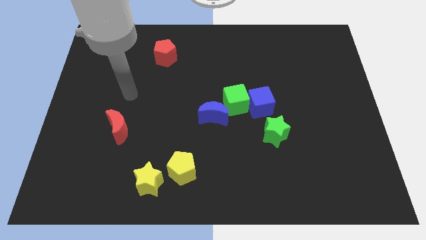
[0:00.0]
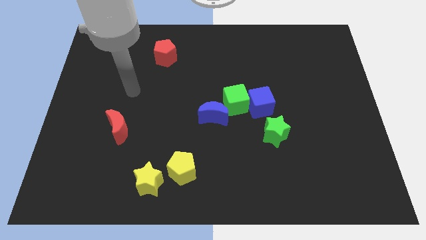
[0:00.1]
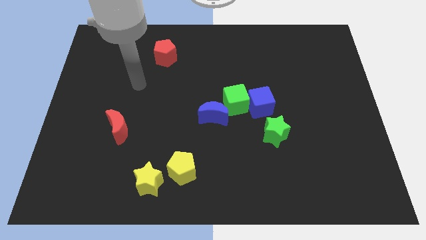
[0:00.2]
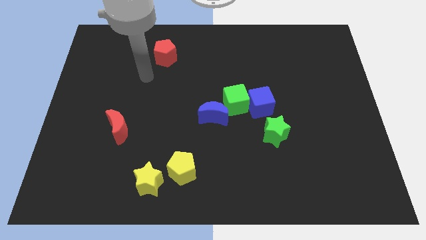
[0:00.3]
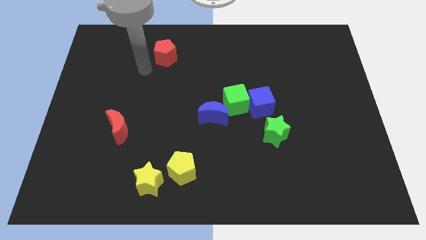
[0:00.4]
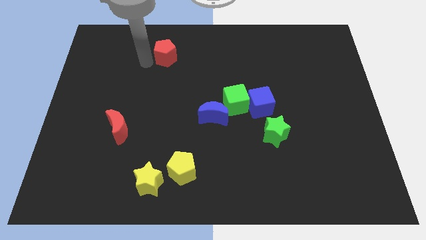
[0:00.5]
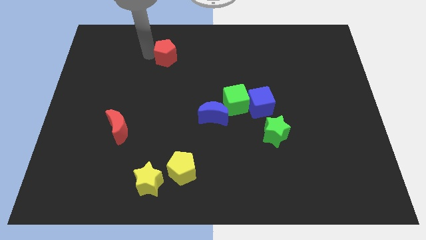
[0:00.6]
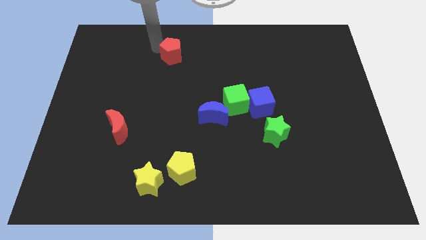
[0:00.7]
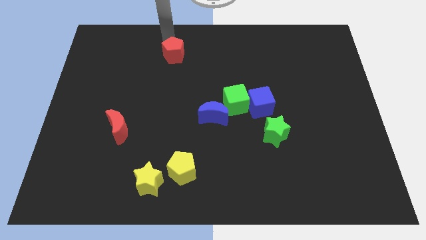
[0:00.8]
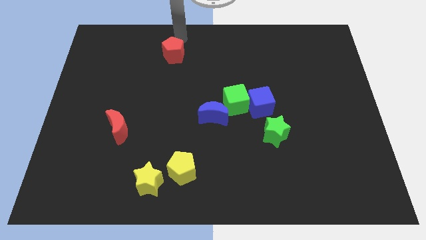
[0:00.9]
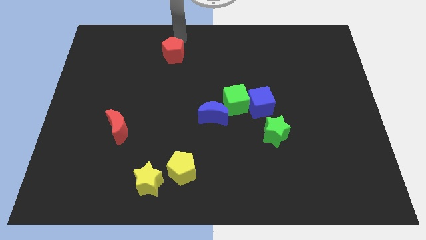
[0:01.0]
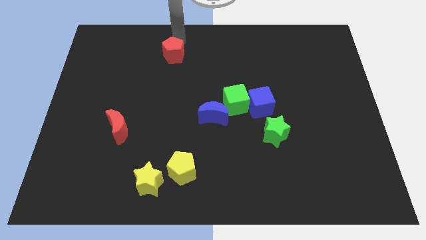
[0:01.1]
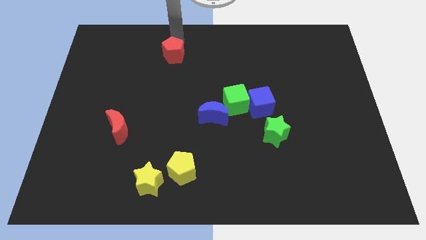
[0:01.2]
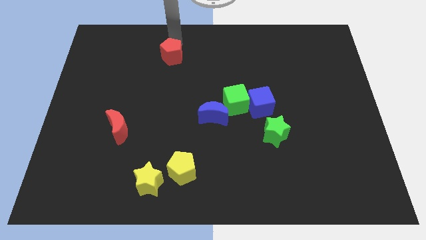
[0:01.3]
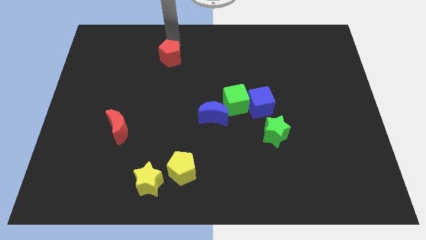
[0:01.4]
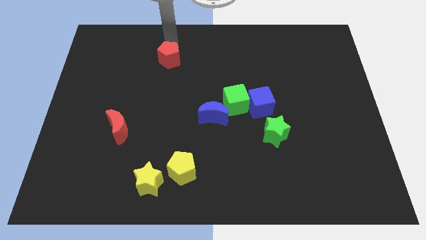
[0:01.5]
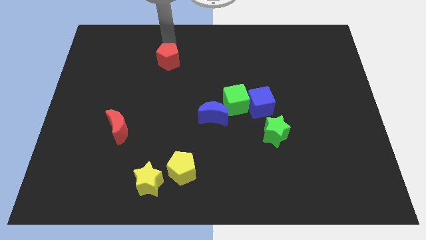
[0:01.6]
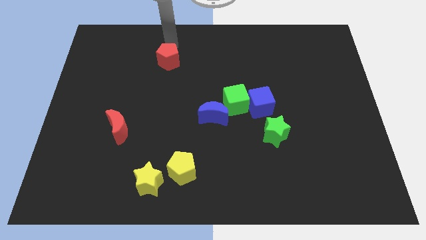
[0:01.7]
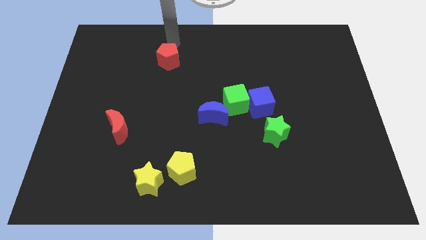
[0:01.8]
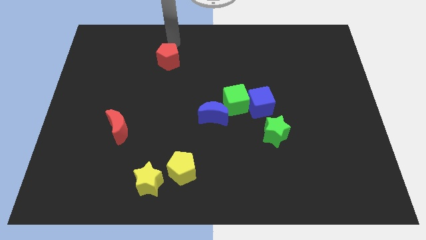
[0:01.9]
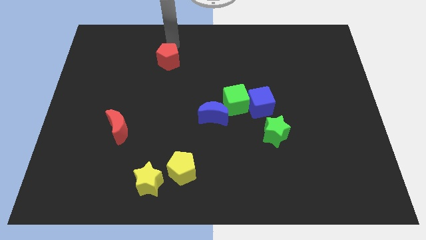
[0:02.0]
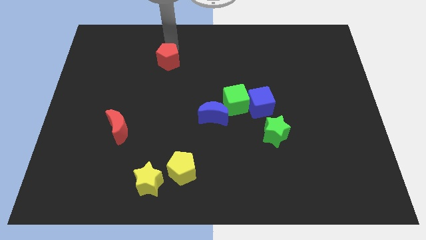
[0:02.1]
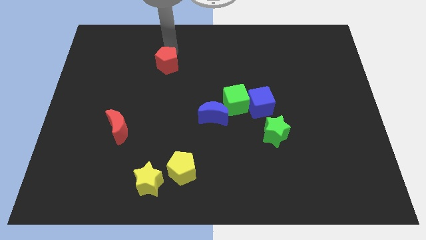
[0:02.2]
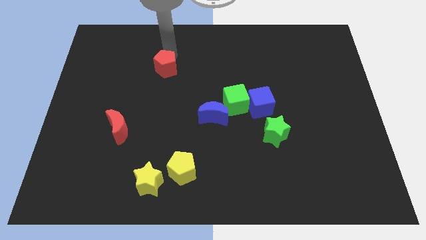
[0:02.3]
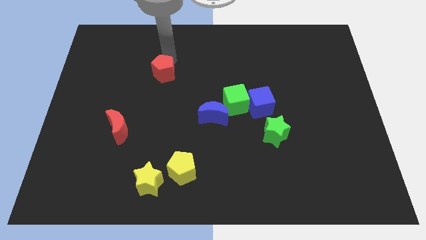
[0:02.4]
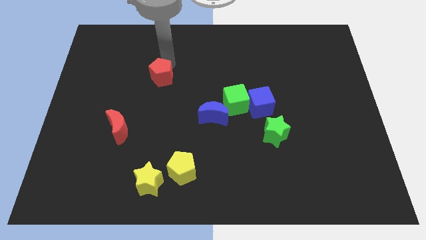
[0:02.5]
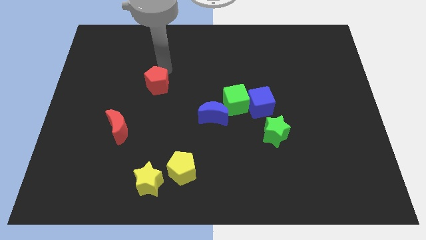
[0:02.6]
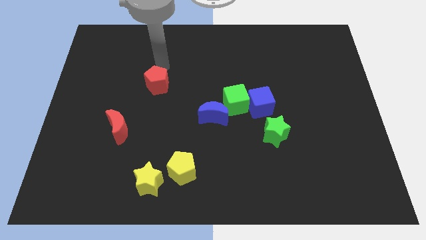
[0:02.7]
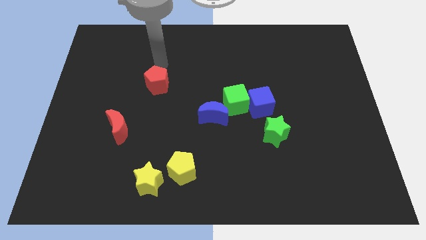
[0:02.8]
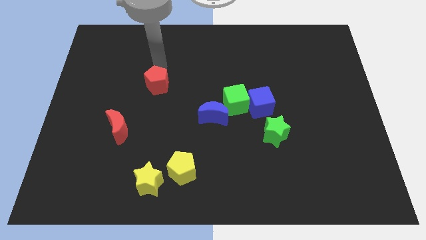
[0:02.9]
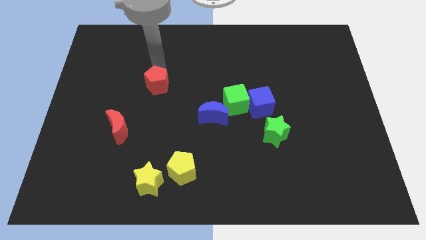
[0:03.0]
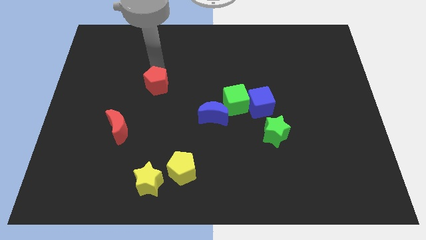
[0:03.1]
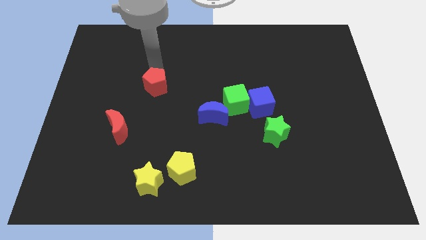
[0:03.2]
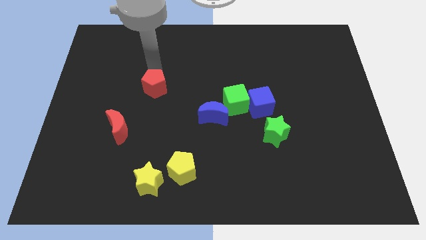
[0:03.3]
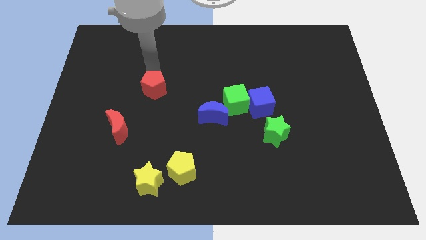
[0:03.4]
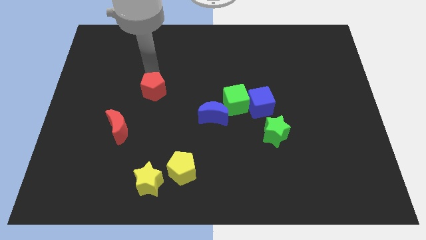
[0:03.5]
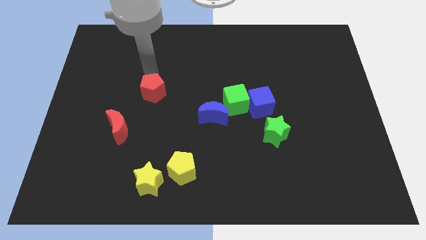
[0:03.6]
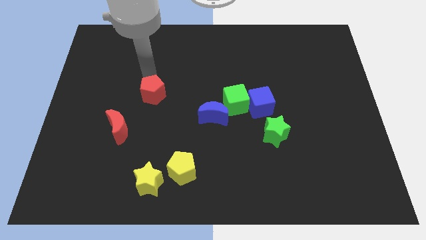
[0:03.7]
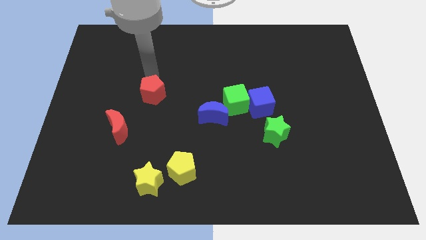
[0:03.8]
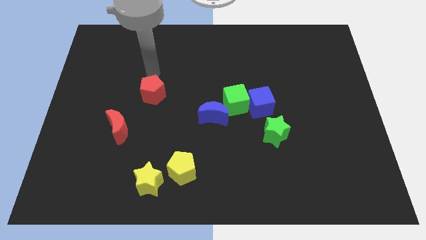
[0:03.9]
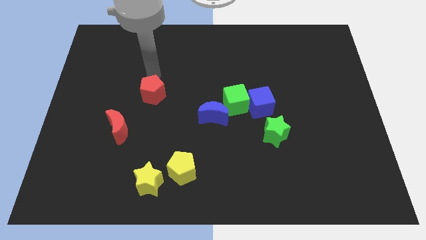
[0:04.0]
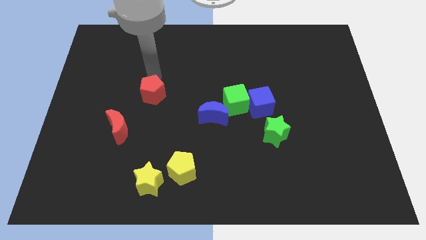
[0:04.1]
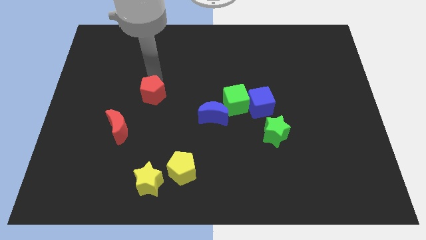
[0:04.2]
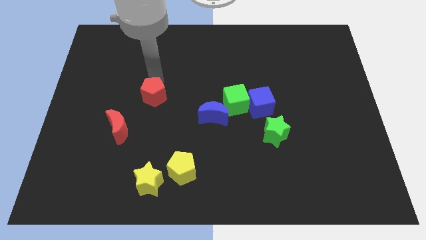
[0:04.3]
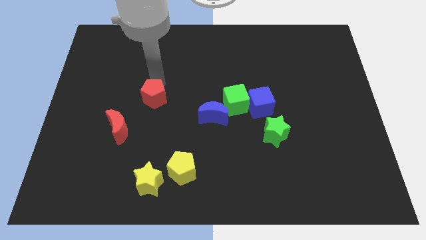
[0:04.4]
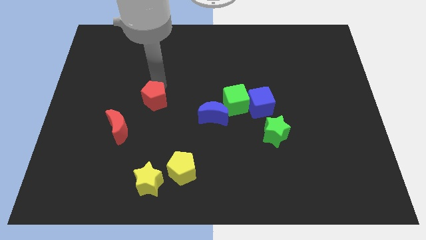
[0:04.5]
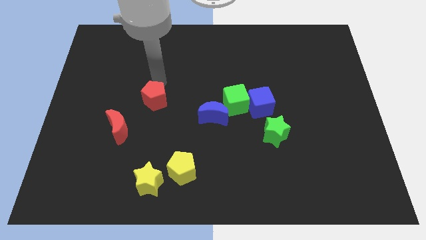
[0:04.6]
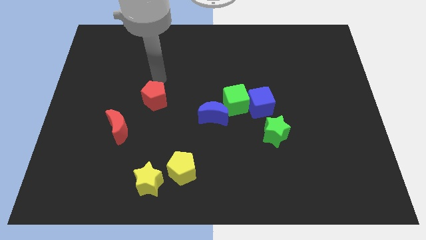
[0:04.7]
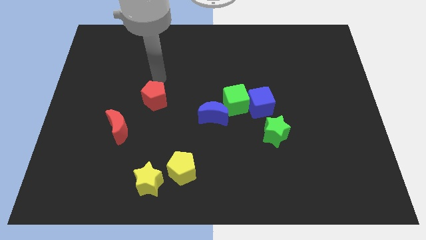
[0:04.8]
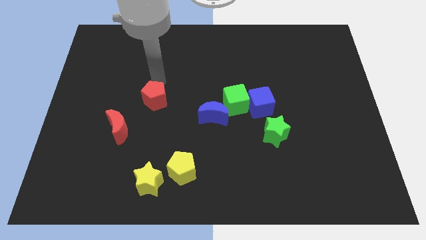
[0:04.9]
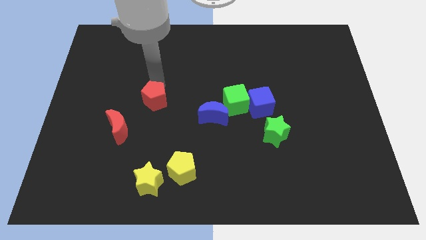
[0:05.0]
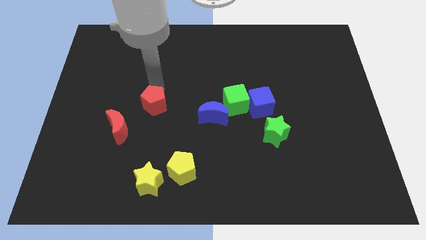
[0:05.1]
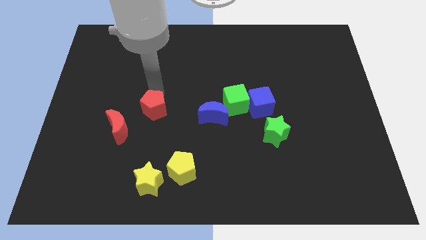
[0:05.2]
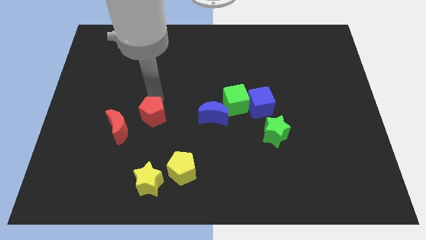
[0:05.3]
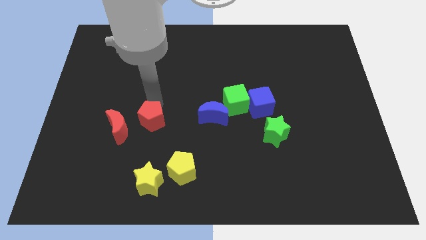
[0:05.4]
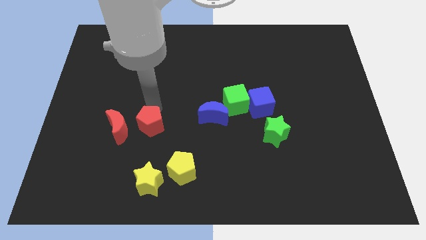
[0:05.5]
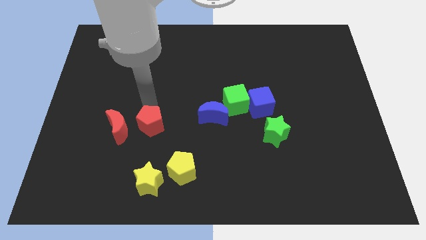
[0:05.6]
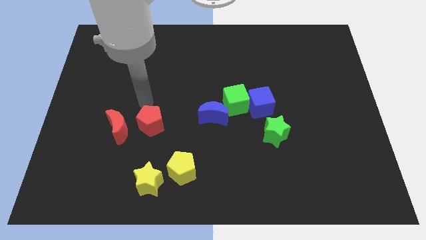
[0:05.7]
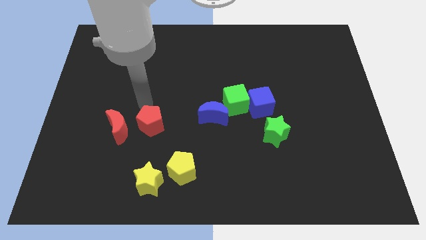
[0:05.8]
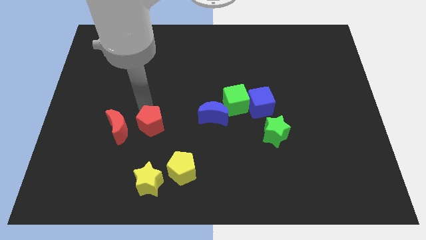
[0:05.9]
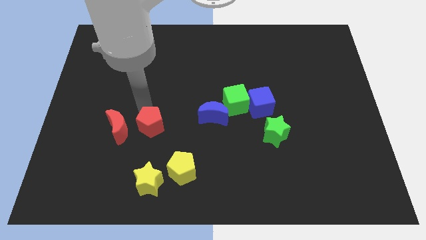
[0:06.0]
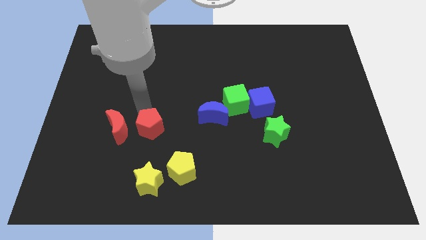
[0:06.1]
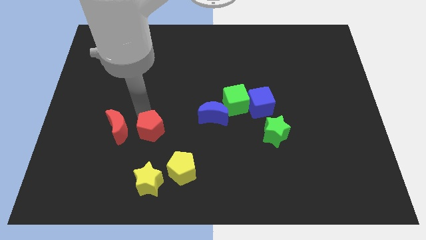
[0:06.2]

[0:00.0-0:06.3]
put the red pentagon to the top left side of the yellow pentagon
